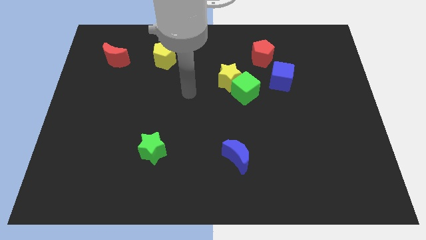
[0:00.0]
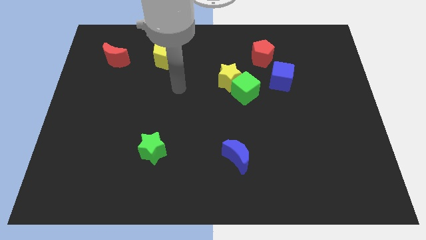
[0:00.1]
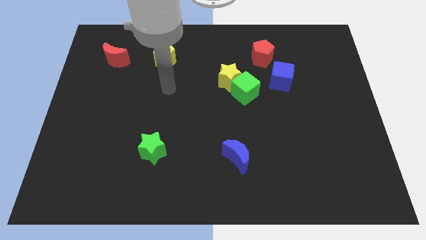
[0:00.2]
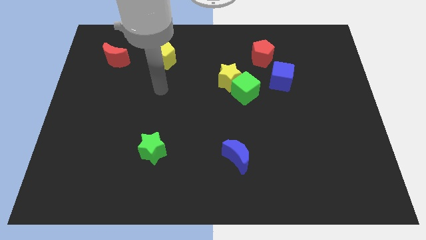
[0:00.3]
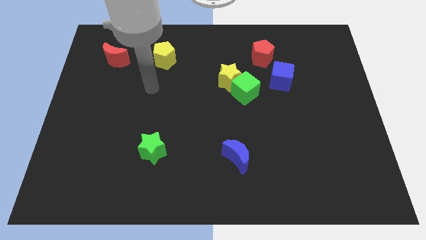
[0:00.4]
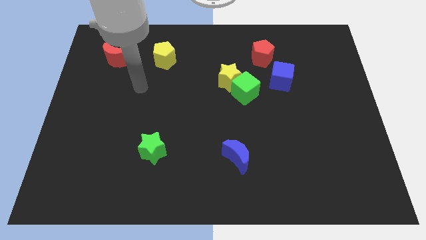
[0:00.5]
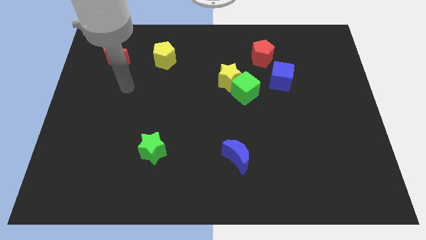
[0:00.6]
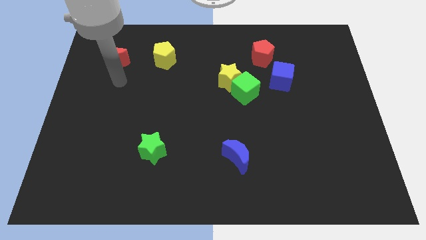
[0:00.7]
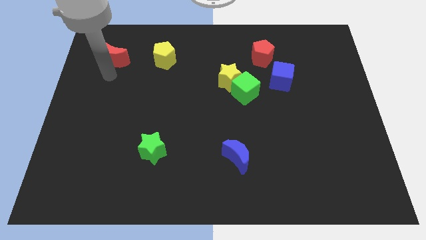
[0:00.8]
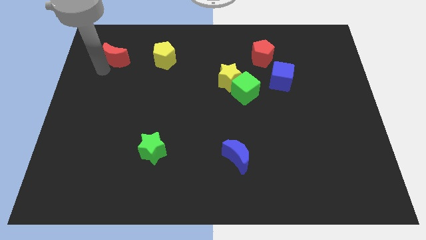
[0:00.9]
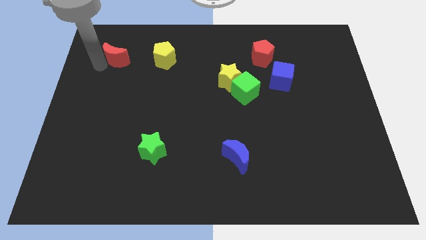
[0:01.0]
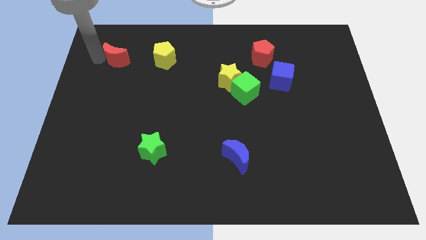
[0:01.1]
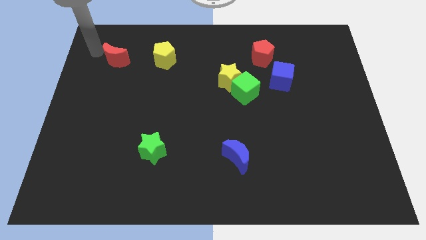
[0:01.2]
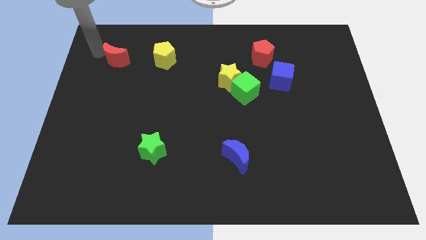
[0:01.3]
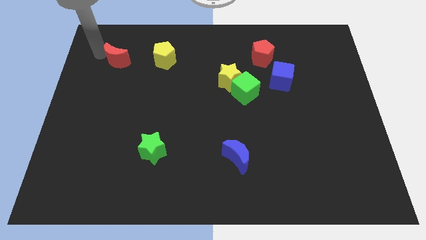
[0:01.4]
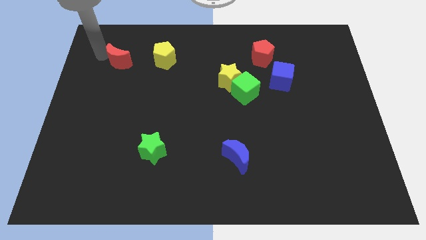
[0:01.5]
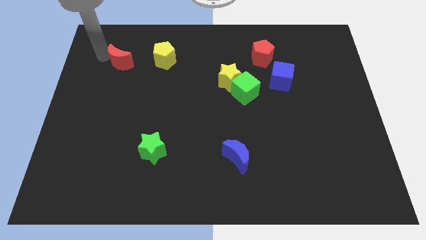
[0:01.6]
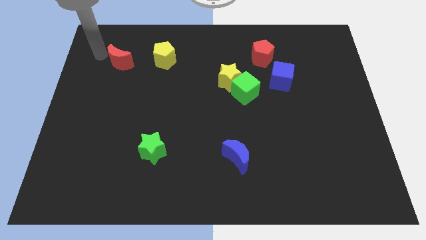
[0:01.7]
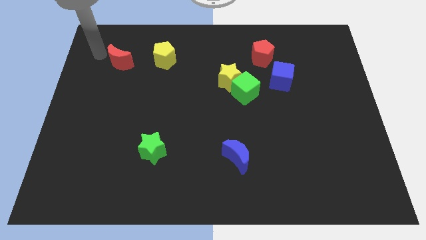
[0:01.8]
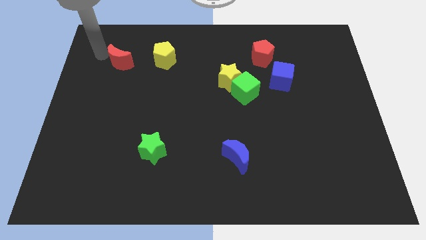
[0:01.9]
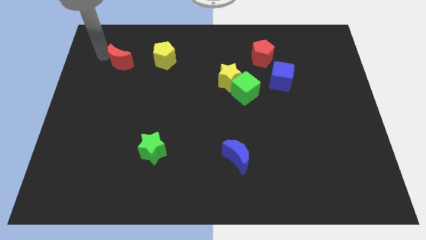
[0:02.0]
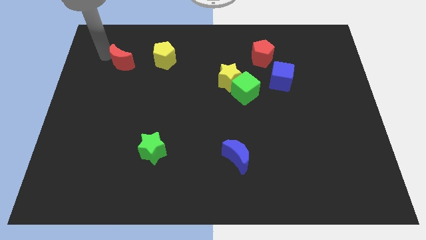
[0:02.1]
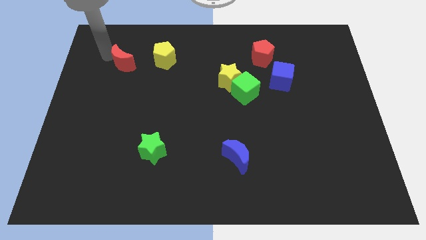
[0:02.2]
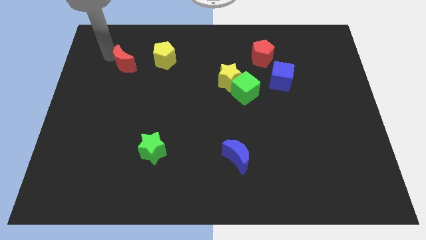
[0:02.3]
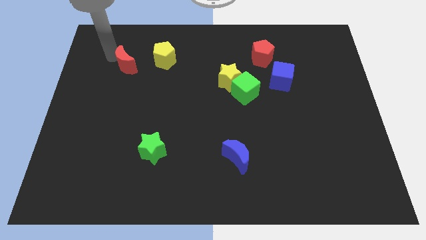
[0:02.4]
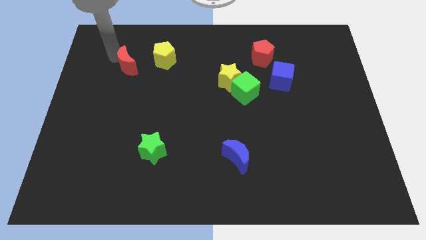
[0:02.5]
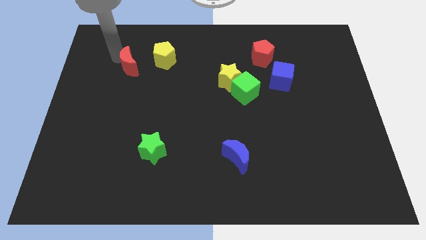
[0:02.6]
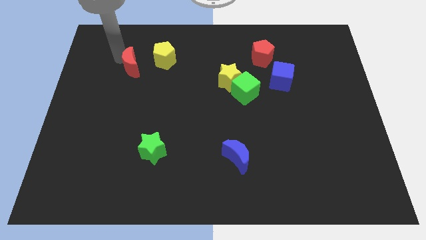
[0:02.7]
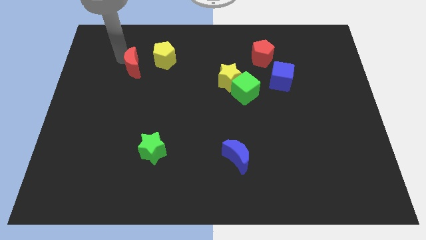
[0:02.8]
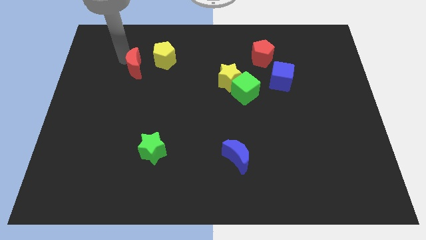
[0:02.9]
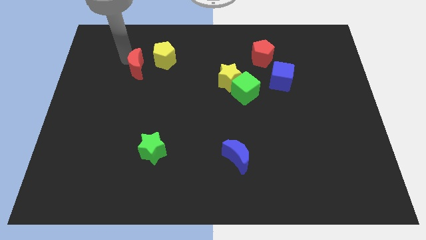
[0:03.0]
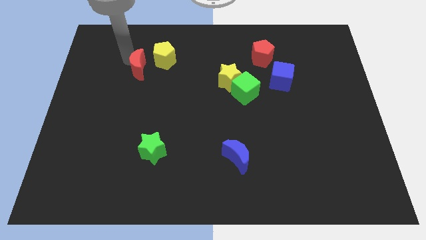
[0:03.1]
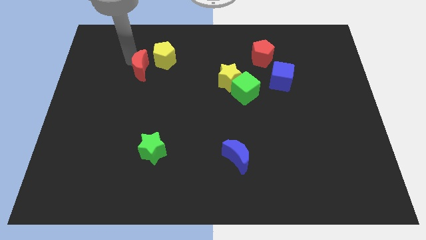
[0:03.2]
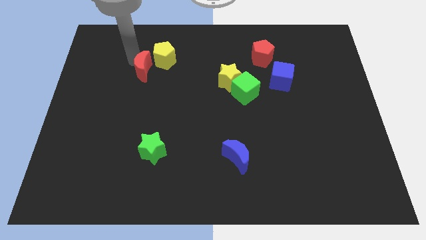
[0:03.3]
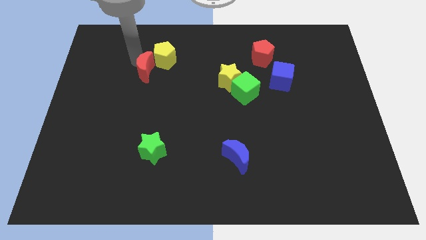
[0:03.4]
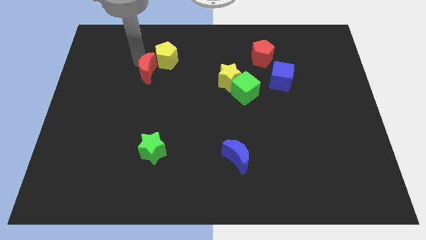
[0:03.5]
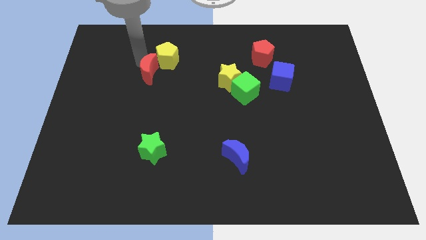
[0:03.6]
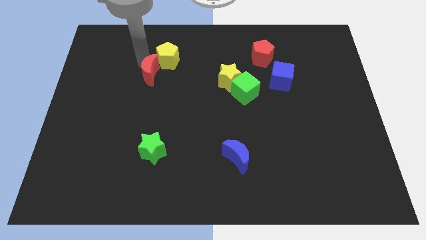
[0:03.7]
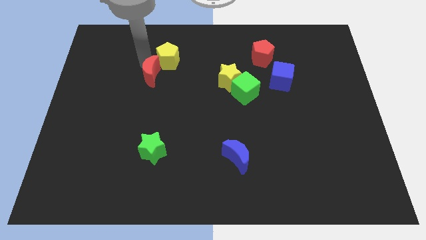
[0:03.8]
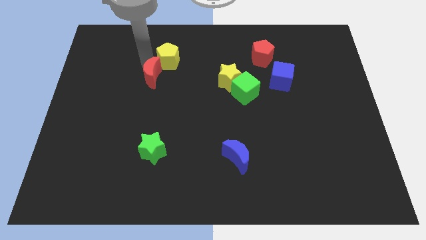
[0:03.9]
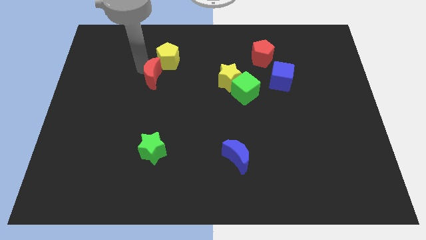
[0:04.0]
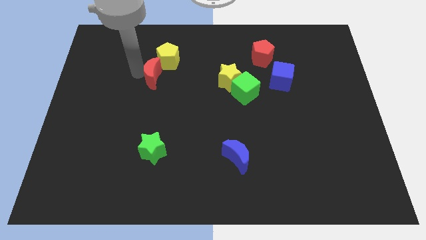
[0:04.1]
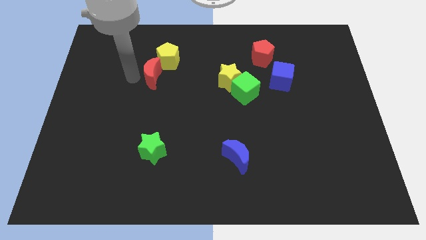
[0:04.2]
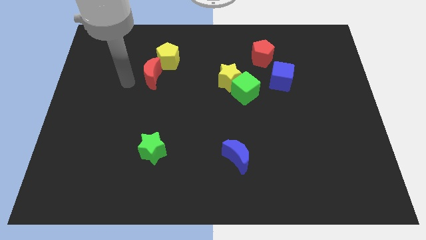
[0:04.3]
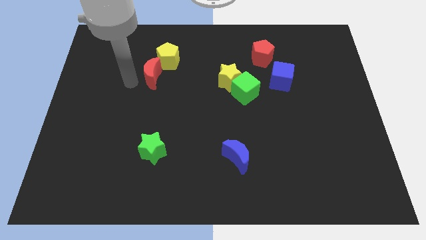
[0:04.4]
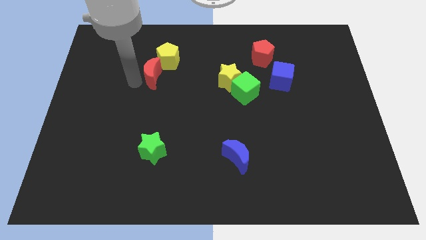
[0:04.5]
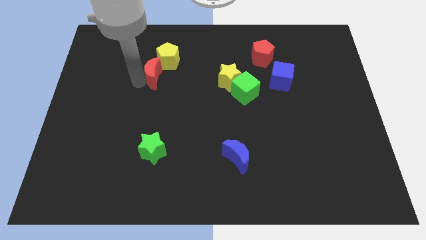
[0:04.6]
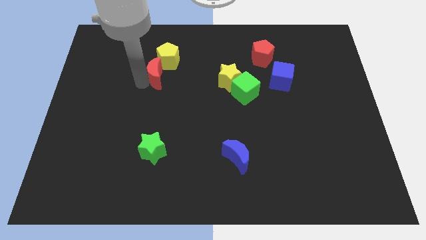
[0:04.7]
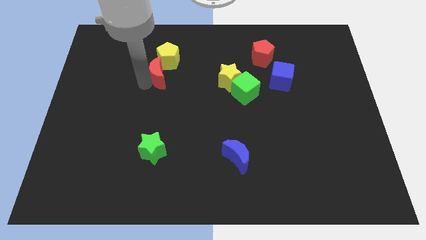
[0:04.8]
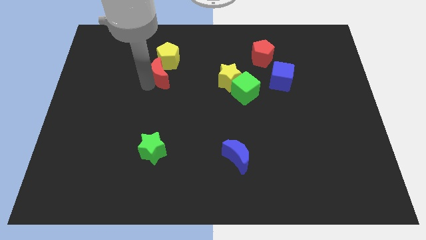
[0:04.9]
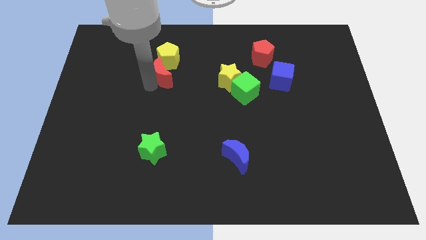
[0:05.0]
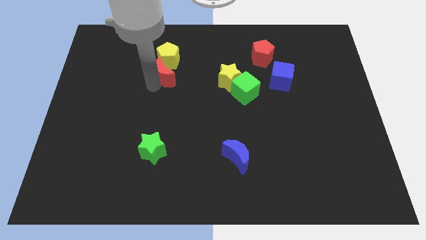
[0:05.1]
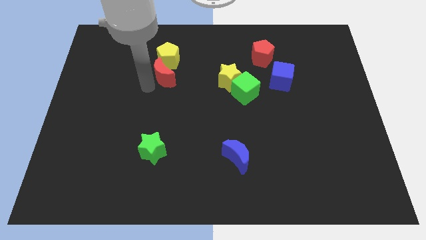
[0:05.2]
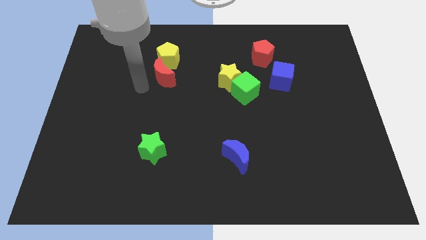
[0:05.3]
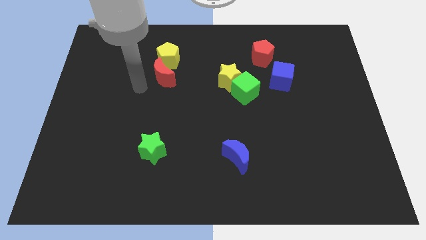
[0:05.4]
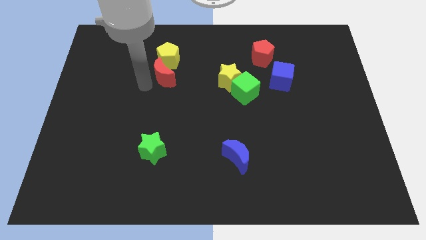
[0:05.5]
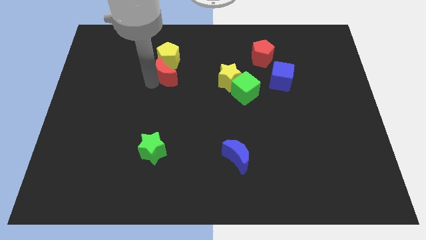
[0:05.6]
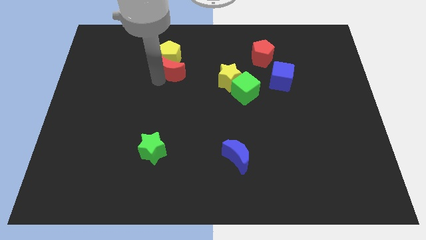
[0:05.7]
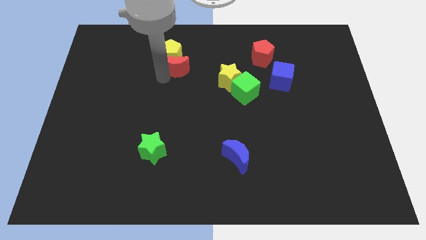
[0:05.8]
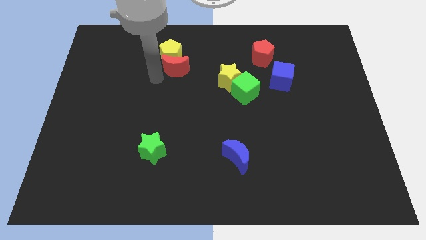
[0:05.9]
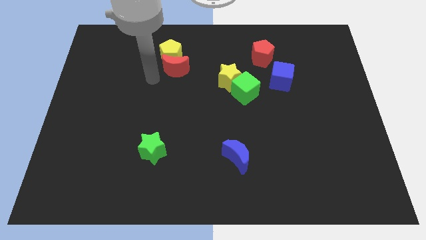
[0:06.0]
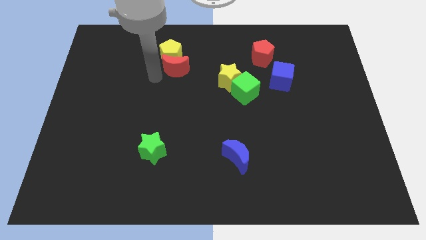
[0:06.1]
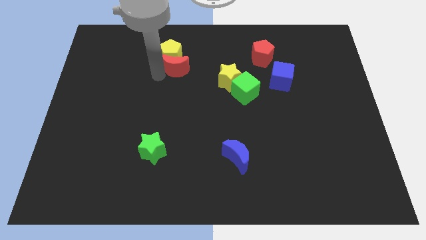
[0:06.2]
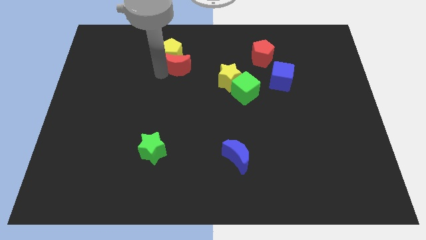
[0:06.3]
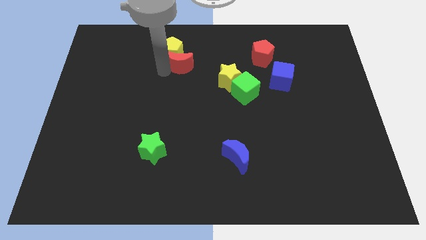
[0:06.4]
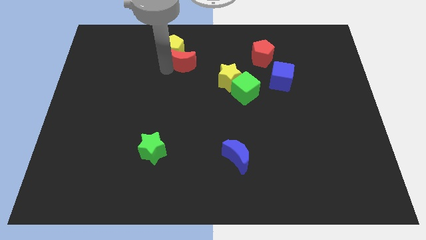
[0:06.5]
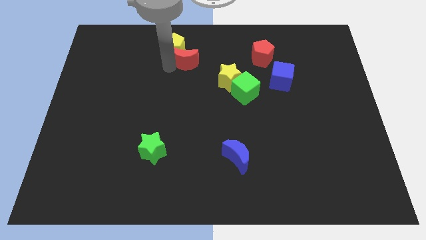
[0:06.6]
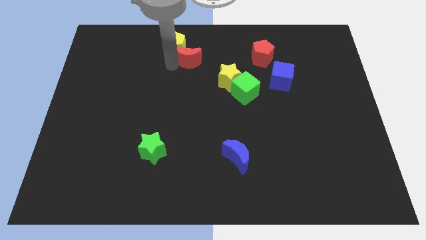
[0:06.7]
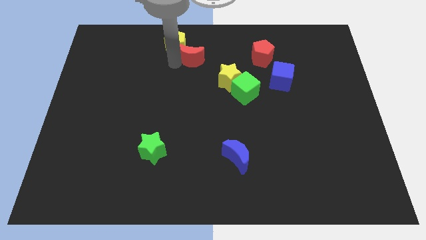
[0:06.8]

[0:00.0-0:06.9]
slide the red moon to the right of the yellow pentagon
